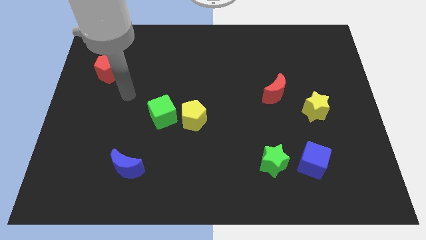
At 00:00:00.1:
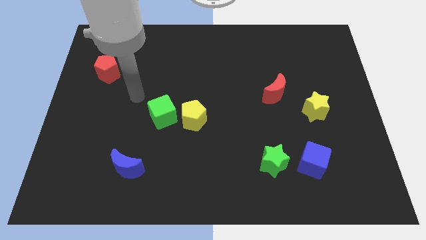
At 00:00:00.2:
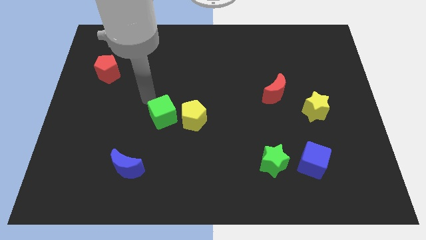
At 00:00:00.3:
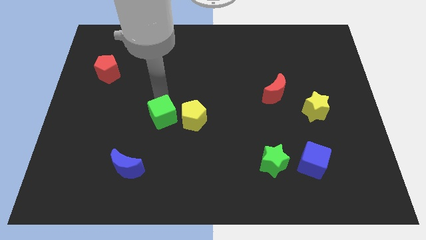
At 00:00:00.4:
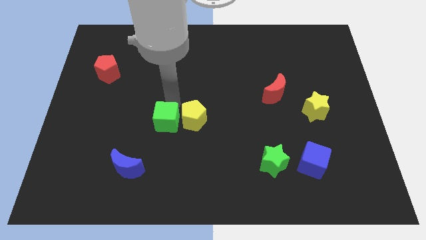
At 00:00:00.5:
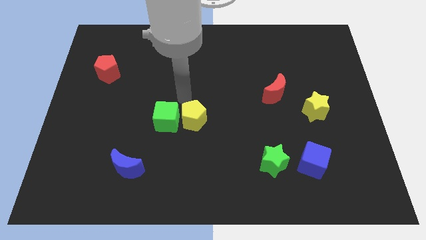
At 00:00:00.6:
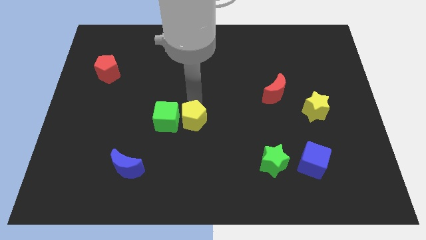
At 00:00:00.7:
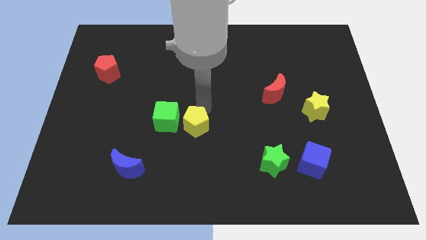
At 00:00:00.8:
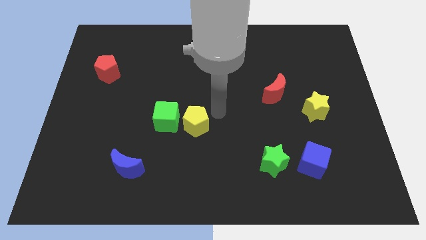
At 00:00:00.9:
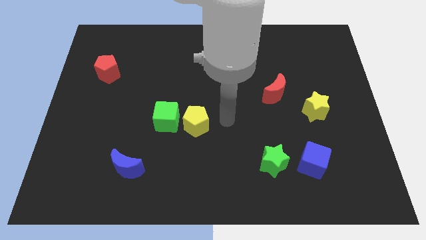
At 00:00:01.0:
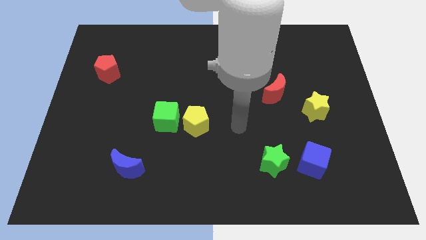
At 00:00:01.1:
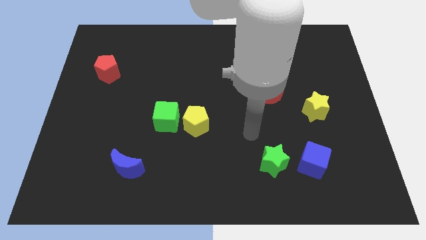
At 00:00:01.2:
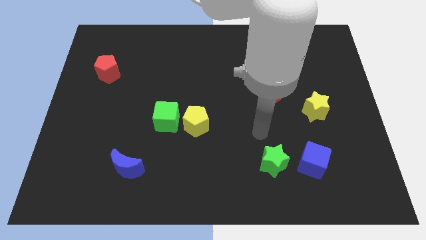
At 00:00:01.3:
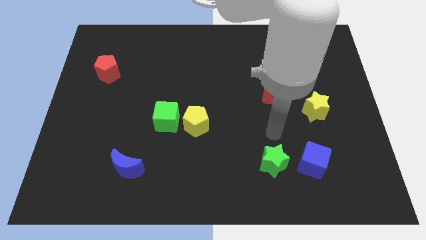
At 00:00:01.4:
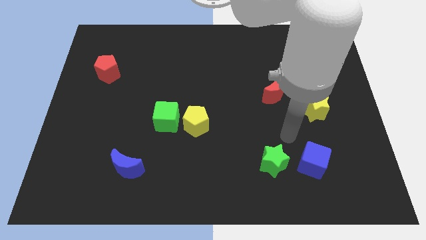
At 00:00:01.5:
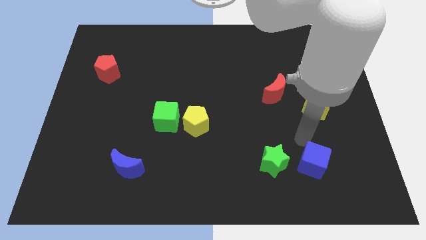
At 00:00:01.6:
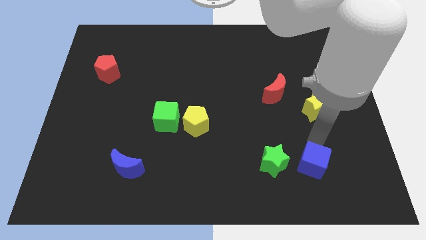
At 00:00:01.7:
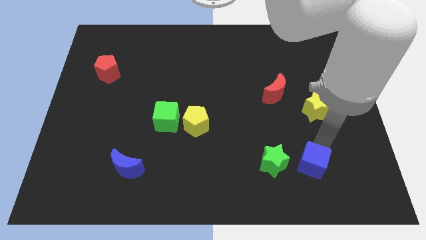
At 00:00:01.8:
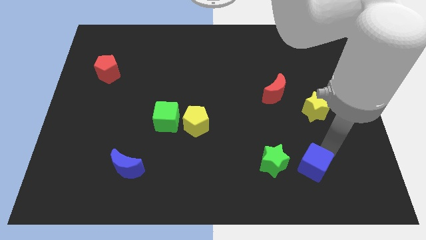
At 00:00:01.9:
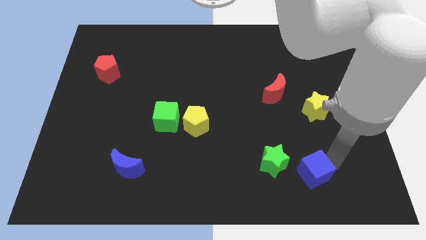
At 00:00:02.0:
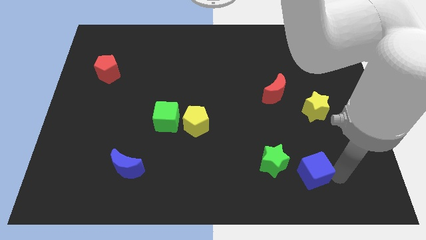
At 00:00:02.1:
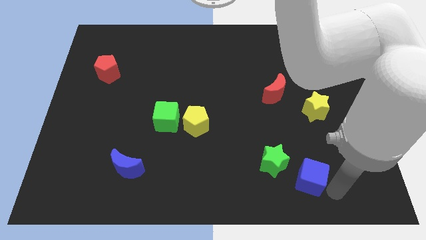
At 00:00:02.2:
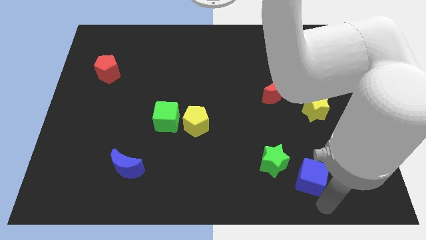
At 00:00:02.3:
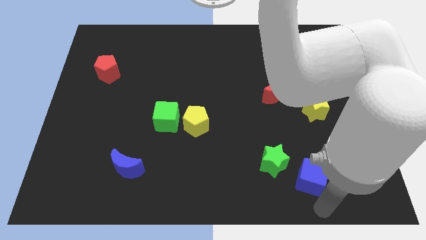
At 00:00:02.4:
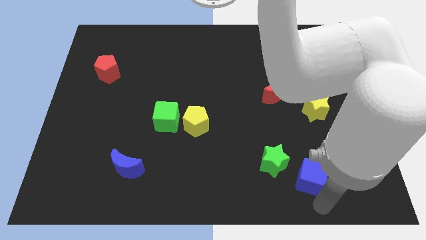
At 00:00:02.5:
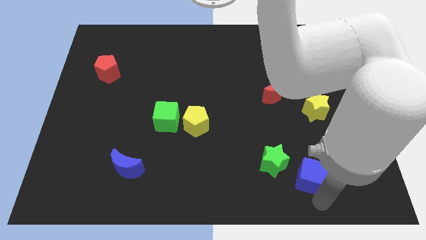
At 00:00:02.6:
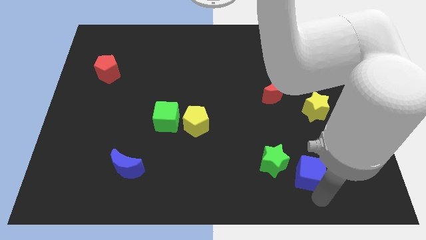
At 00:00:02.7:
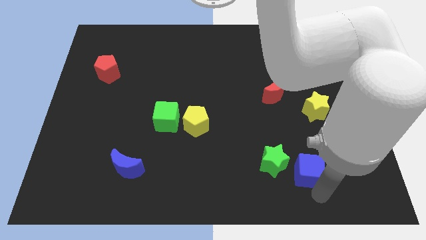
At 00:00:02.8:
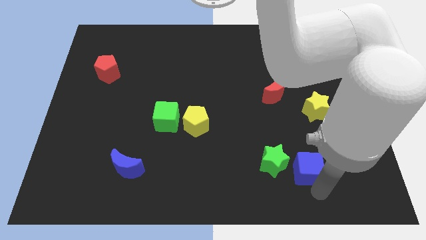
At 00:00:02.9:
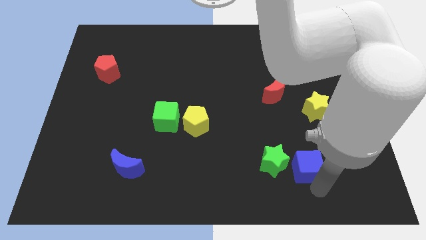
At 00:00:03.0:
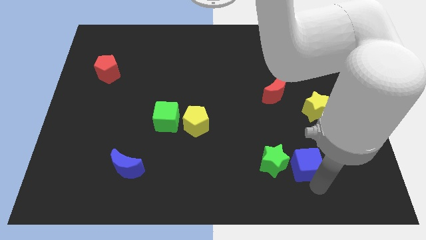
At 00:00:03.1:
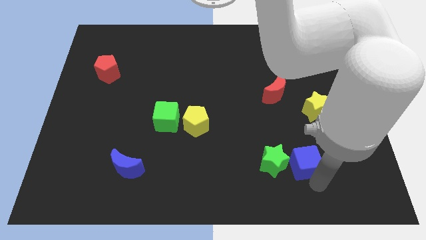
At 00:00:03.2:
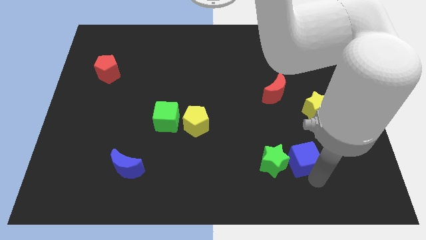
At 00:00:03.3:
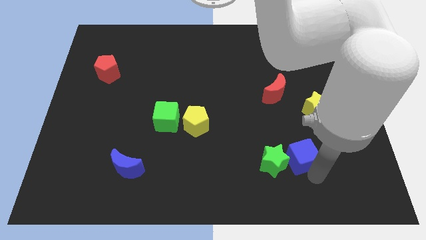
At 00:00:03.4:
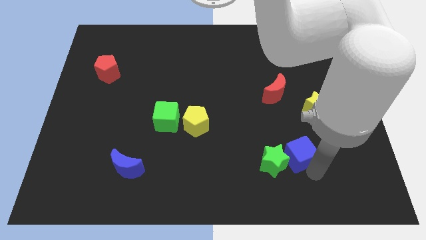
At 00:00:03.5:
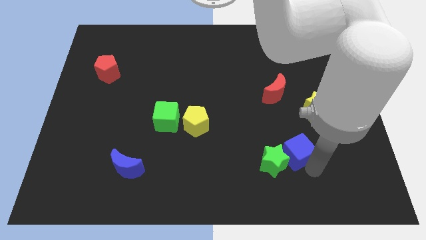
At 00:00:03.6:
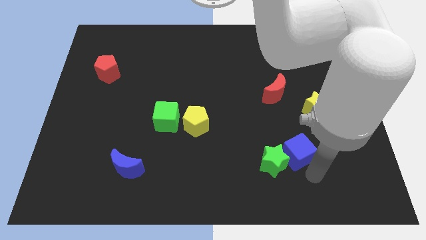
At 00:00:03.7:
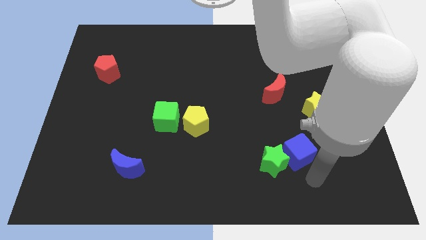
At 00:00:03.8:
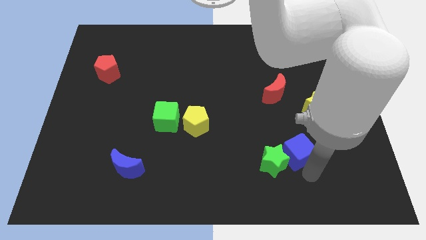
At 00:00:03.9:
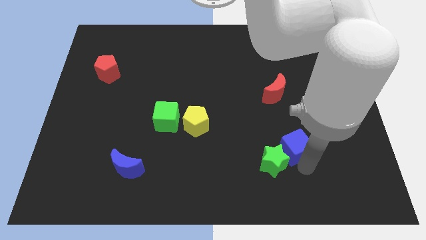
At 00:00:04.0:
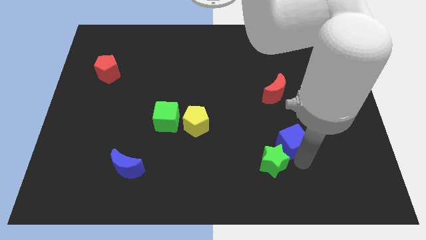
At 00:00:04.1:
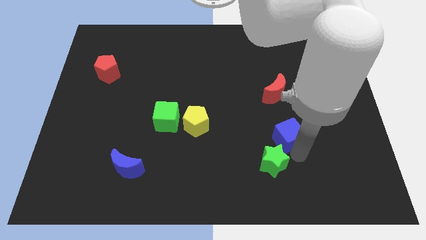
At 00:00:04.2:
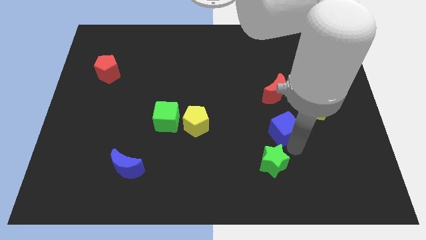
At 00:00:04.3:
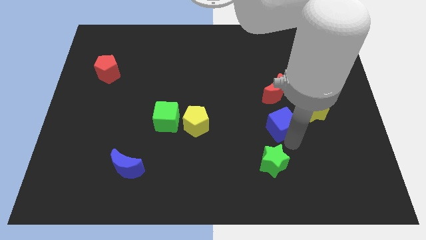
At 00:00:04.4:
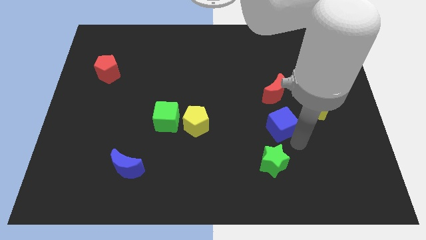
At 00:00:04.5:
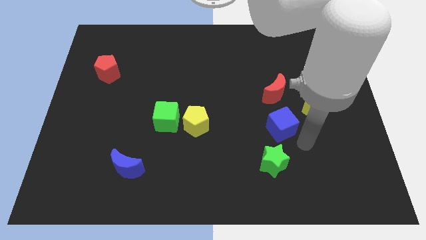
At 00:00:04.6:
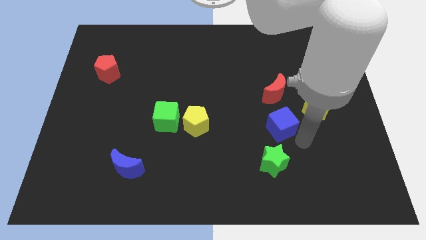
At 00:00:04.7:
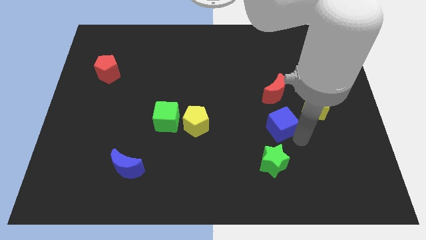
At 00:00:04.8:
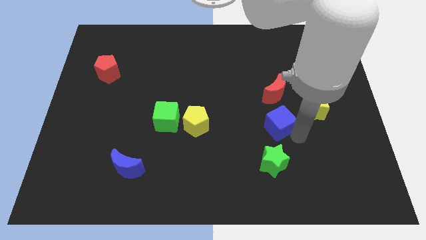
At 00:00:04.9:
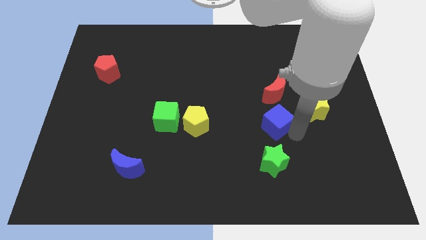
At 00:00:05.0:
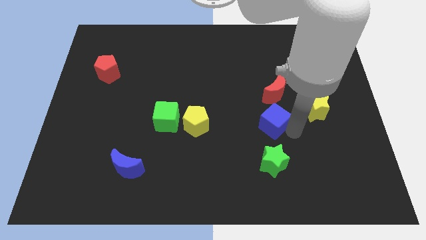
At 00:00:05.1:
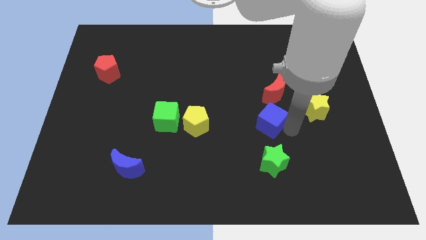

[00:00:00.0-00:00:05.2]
move the blue cube diagonally down and to the left of the red moon

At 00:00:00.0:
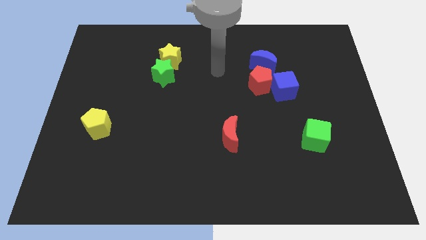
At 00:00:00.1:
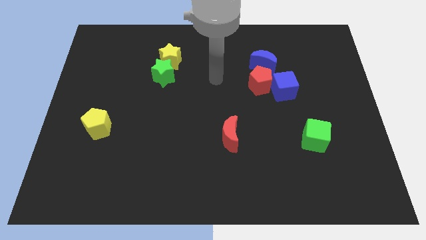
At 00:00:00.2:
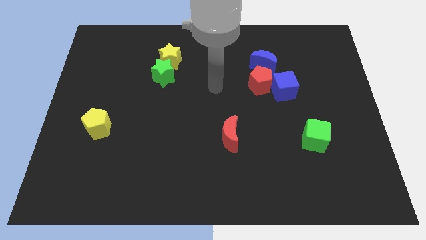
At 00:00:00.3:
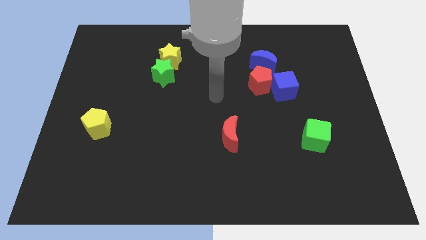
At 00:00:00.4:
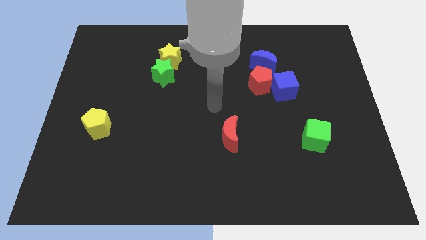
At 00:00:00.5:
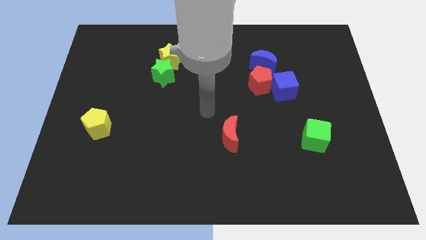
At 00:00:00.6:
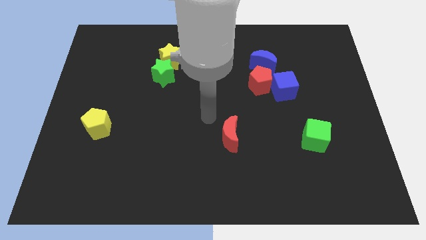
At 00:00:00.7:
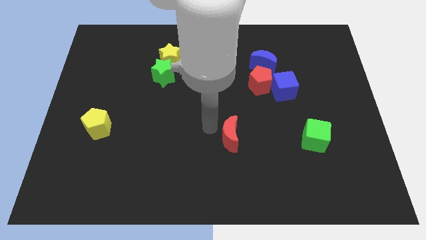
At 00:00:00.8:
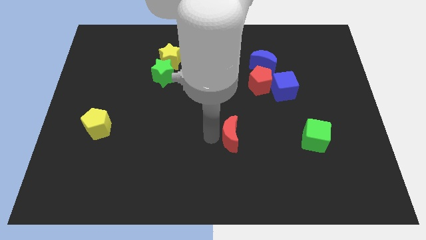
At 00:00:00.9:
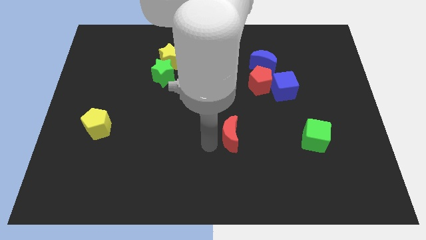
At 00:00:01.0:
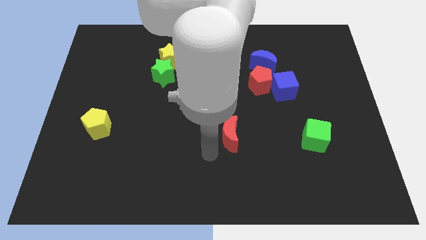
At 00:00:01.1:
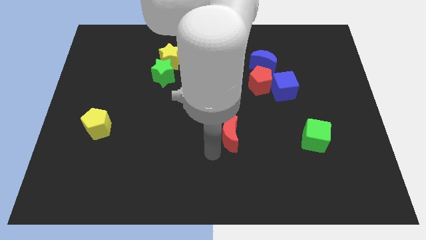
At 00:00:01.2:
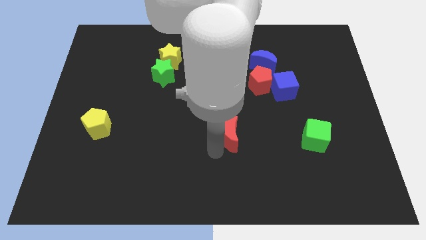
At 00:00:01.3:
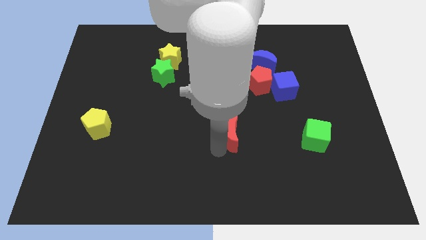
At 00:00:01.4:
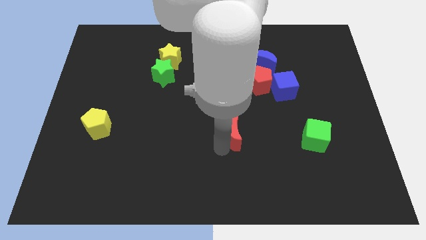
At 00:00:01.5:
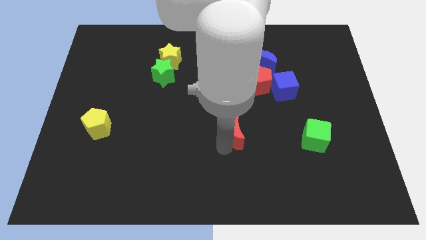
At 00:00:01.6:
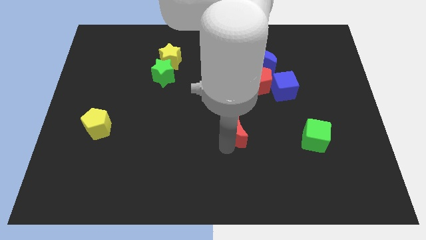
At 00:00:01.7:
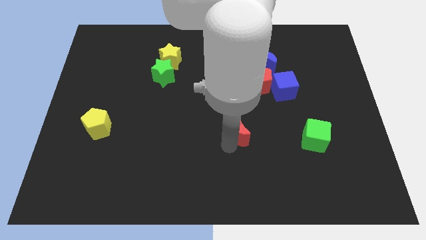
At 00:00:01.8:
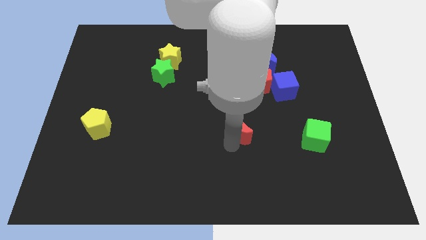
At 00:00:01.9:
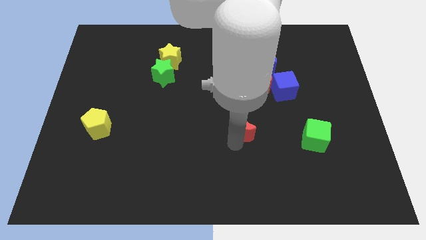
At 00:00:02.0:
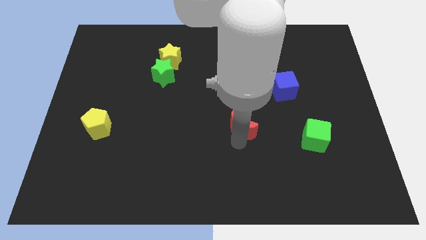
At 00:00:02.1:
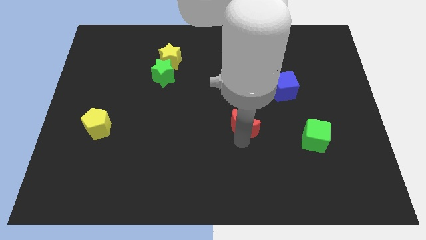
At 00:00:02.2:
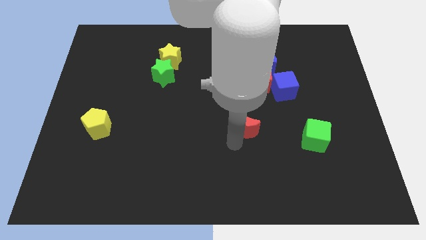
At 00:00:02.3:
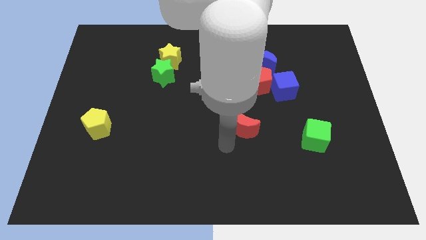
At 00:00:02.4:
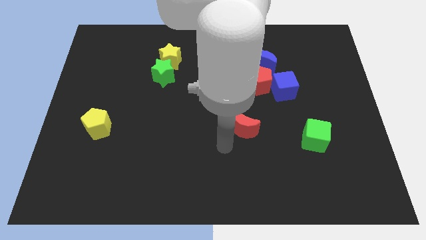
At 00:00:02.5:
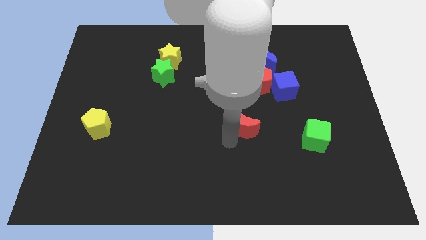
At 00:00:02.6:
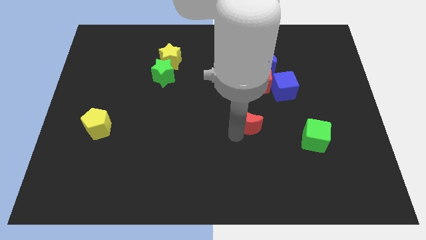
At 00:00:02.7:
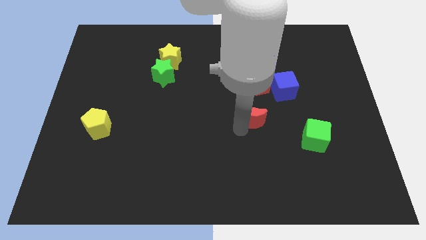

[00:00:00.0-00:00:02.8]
slide the red moon to the bottom left side of the blue cube
